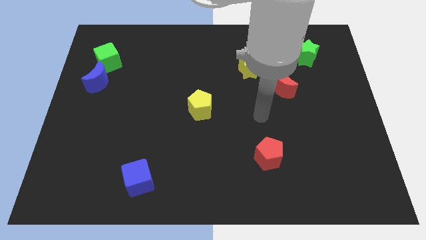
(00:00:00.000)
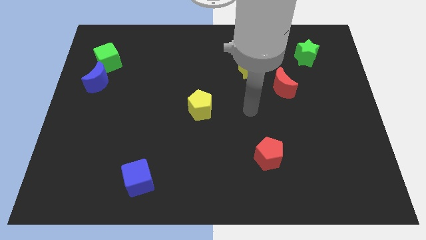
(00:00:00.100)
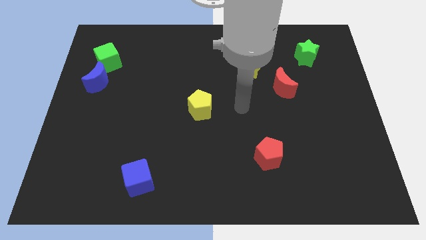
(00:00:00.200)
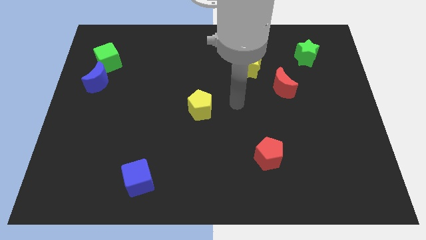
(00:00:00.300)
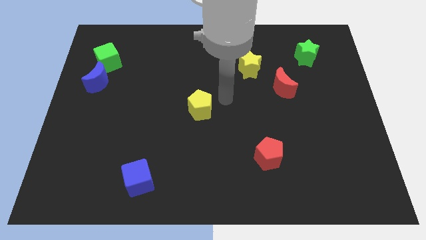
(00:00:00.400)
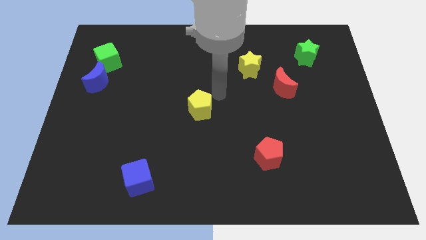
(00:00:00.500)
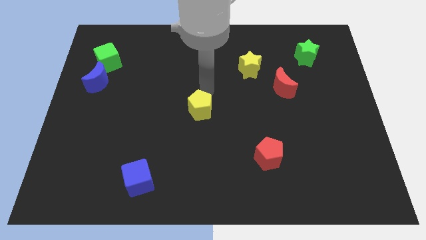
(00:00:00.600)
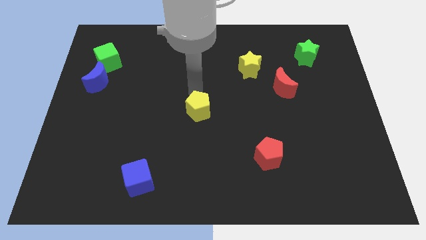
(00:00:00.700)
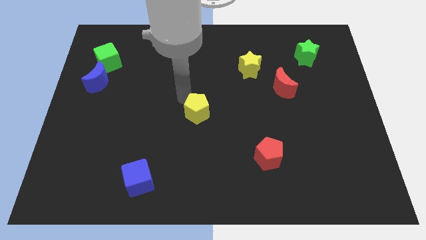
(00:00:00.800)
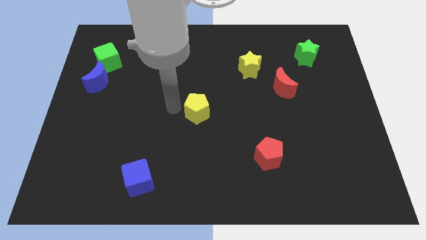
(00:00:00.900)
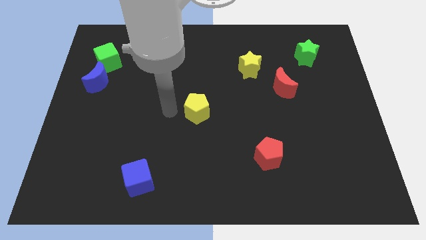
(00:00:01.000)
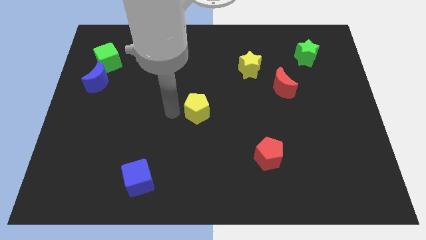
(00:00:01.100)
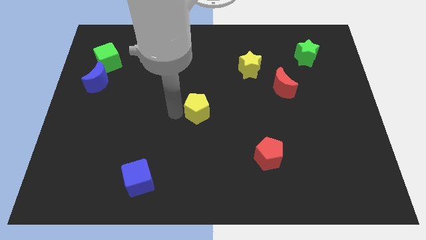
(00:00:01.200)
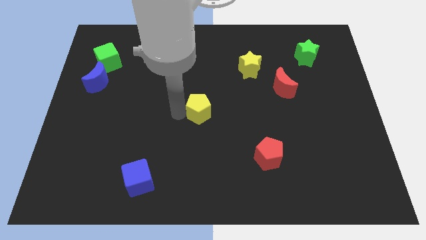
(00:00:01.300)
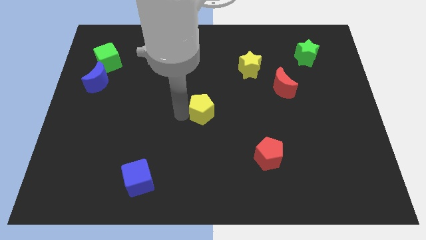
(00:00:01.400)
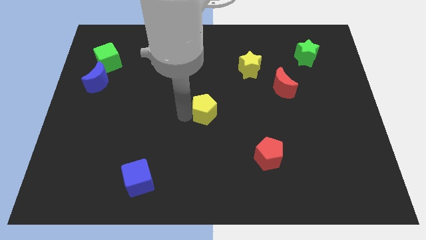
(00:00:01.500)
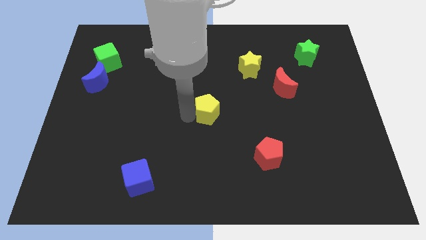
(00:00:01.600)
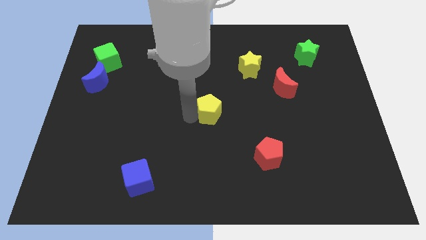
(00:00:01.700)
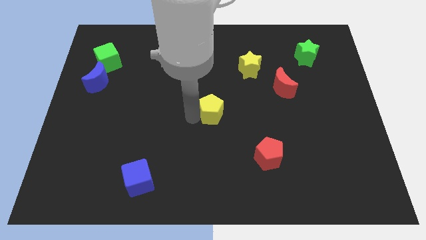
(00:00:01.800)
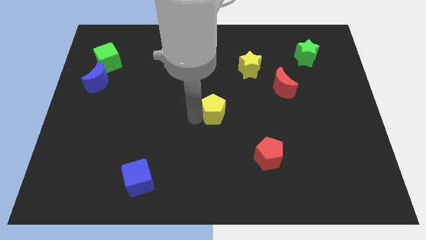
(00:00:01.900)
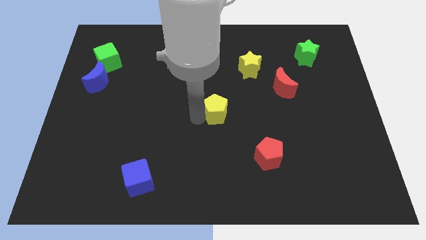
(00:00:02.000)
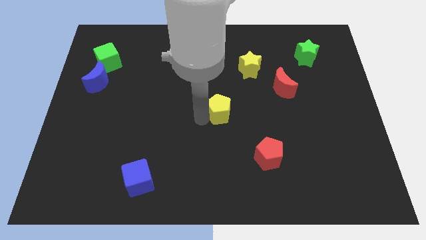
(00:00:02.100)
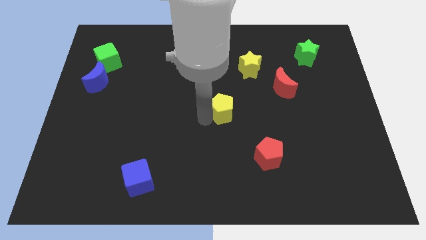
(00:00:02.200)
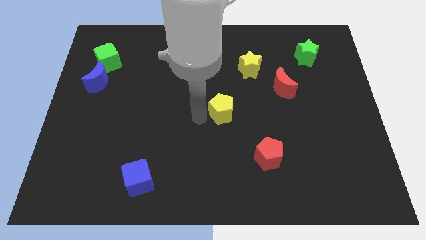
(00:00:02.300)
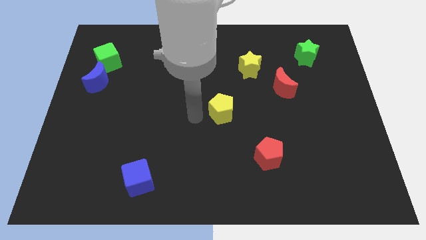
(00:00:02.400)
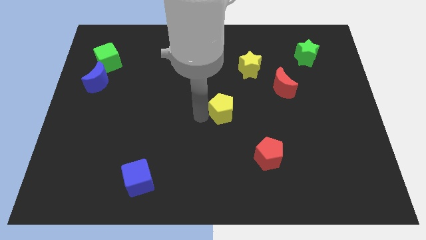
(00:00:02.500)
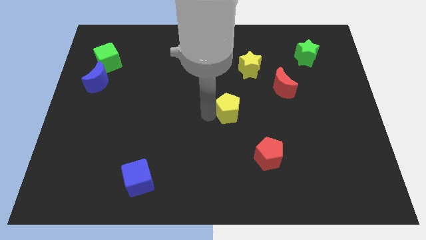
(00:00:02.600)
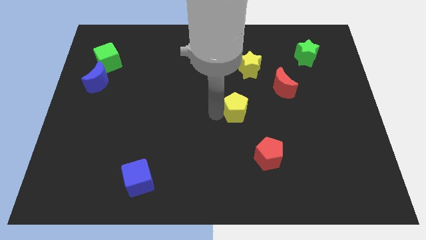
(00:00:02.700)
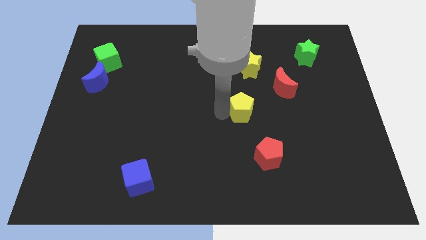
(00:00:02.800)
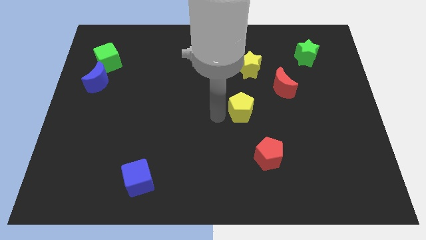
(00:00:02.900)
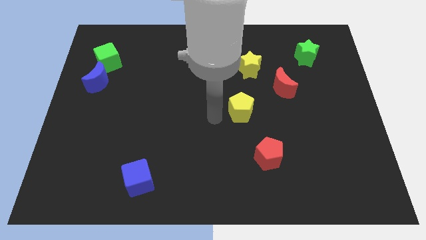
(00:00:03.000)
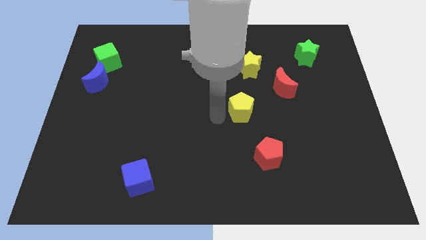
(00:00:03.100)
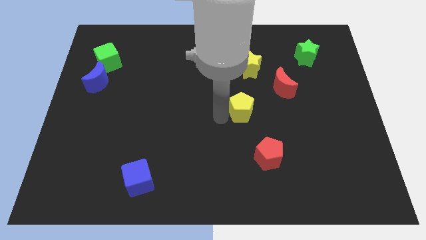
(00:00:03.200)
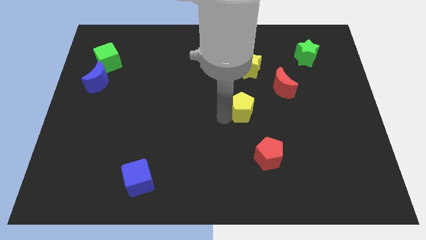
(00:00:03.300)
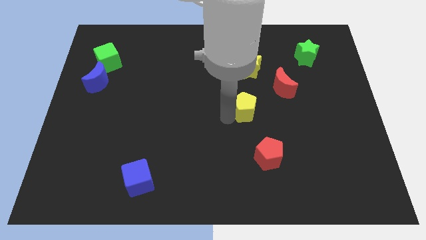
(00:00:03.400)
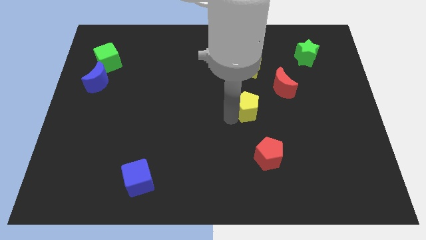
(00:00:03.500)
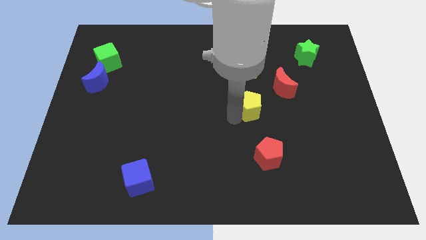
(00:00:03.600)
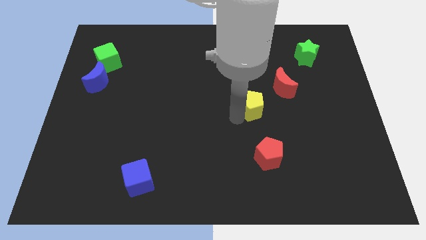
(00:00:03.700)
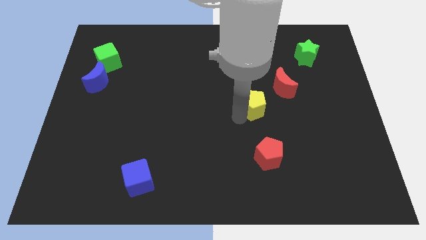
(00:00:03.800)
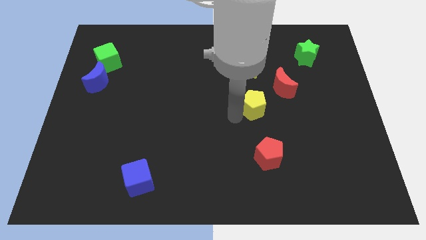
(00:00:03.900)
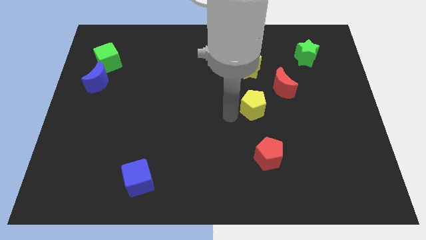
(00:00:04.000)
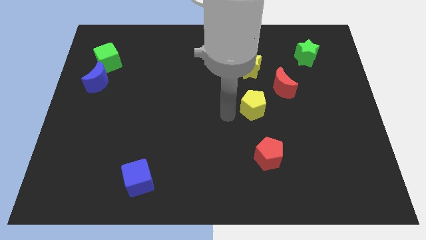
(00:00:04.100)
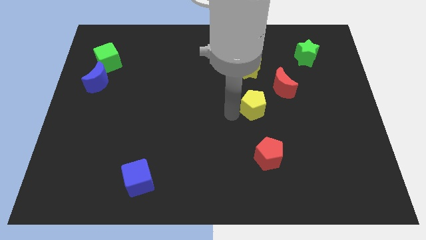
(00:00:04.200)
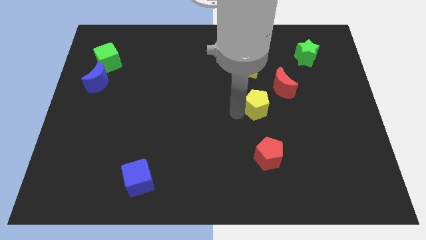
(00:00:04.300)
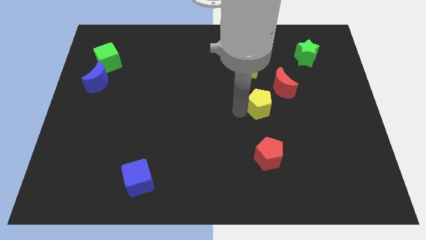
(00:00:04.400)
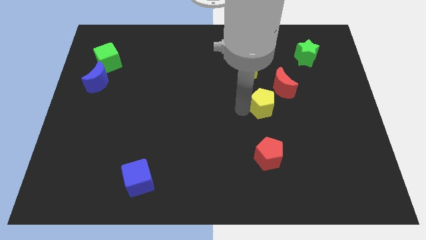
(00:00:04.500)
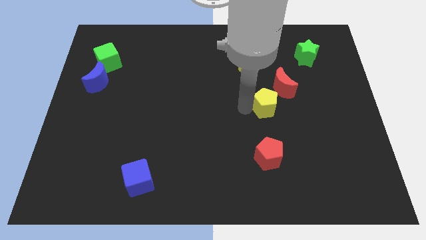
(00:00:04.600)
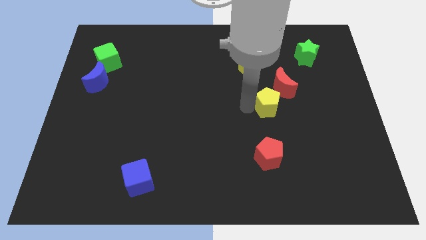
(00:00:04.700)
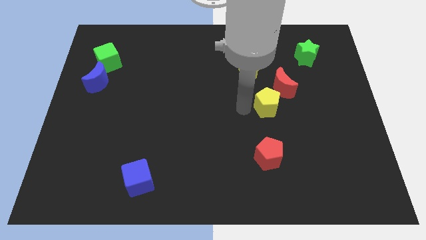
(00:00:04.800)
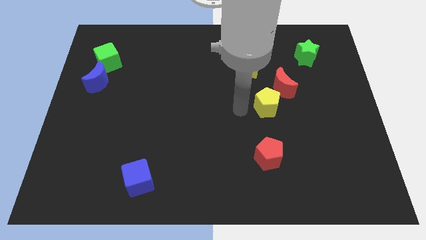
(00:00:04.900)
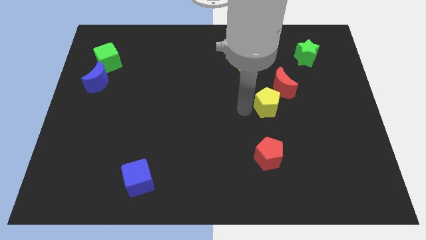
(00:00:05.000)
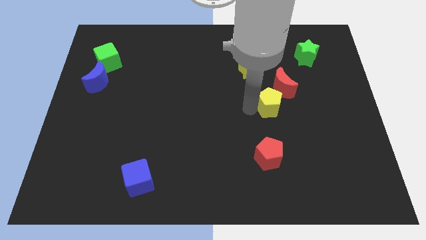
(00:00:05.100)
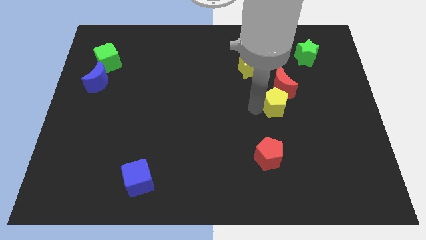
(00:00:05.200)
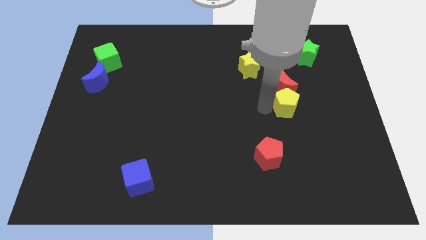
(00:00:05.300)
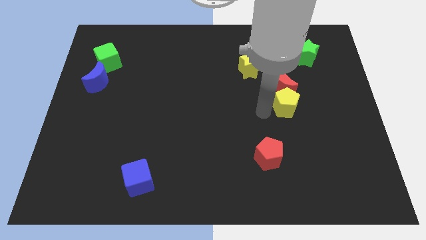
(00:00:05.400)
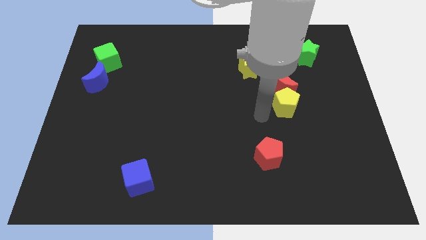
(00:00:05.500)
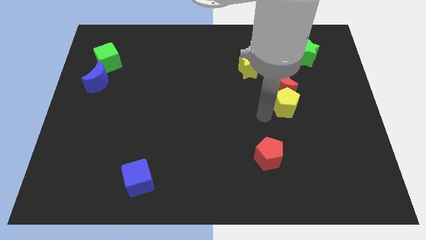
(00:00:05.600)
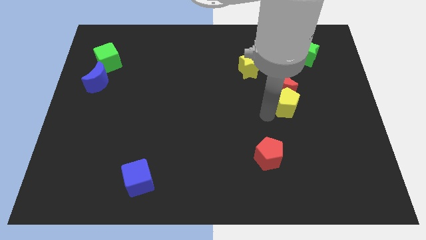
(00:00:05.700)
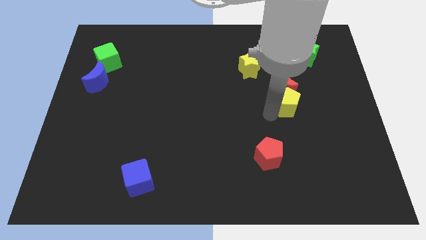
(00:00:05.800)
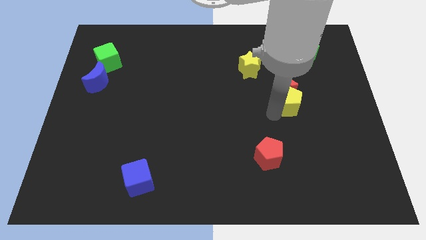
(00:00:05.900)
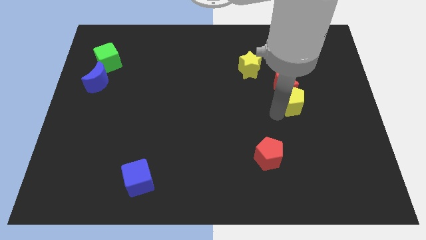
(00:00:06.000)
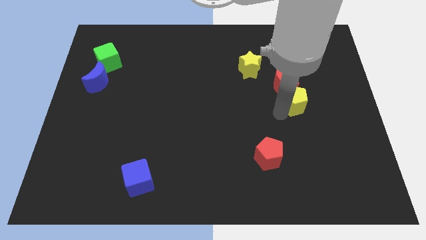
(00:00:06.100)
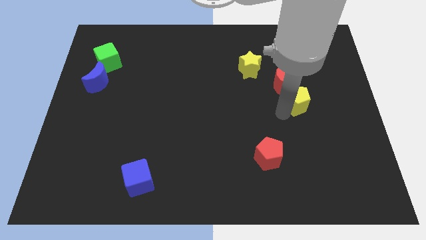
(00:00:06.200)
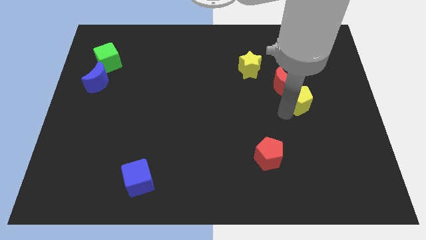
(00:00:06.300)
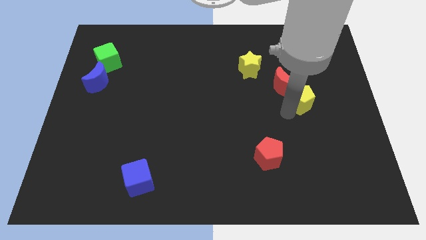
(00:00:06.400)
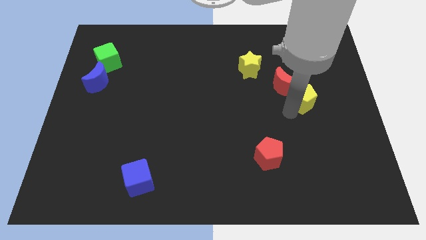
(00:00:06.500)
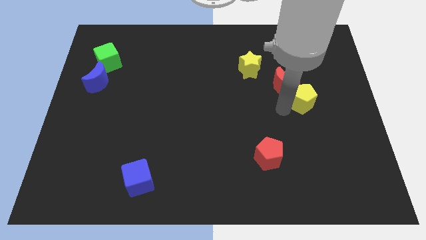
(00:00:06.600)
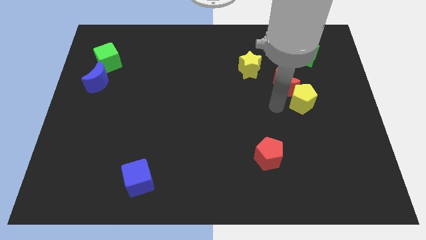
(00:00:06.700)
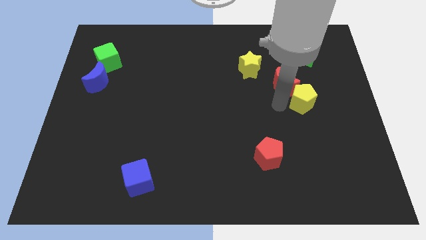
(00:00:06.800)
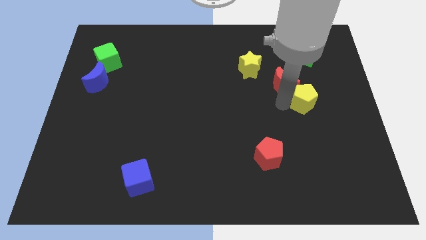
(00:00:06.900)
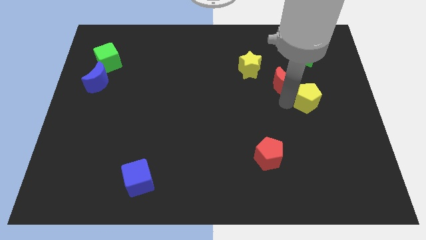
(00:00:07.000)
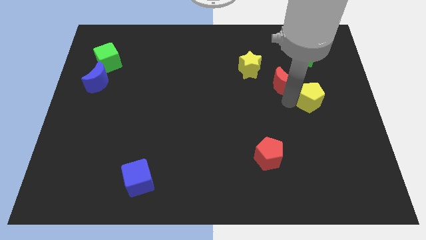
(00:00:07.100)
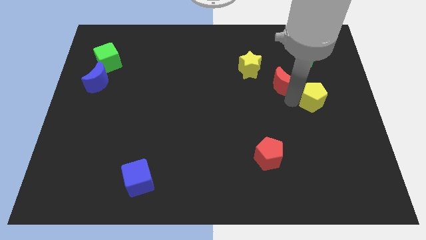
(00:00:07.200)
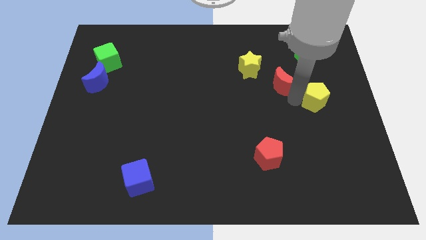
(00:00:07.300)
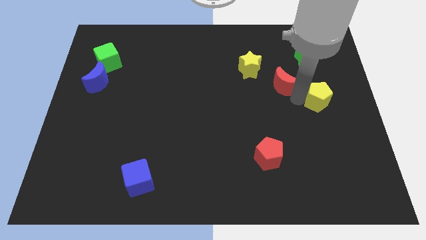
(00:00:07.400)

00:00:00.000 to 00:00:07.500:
push the yellow pentagon to the right side of the board
